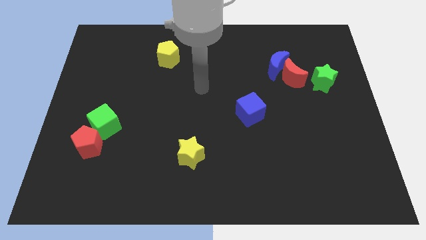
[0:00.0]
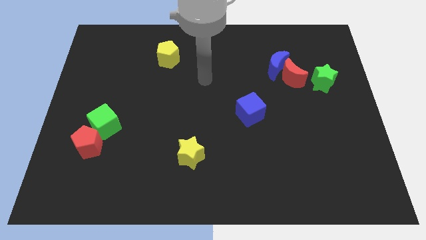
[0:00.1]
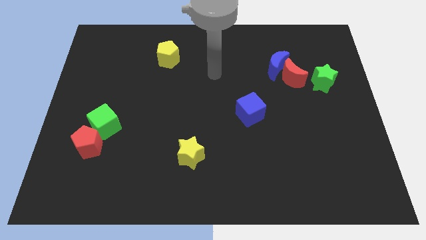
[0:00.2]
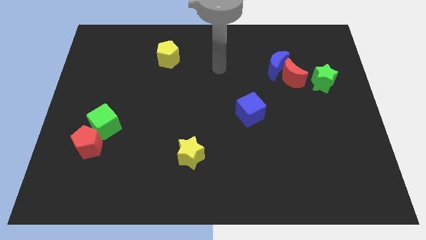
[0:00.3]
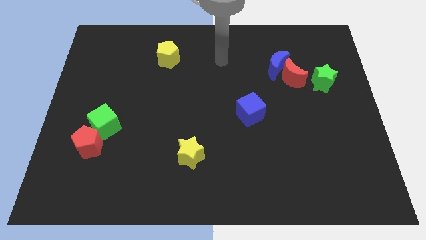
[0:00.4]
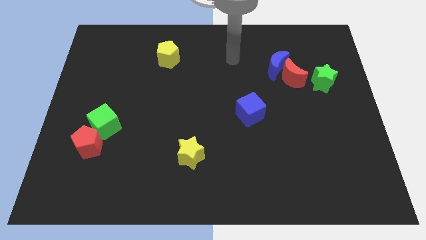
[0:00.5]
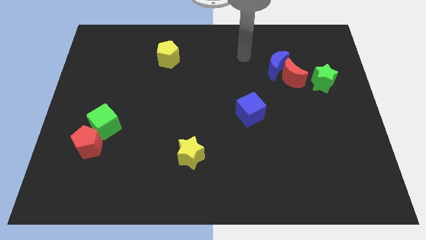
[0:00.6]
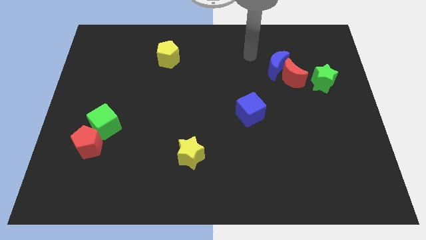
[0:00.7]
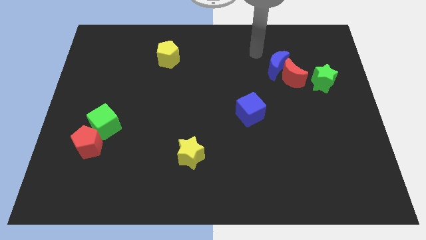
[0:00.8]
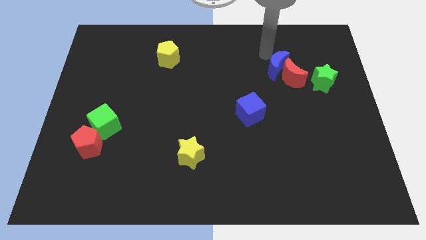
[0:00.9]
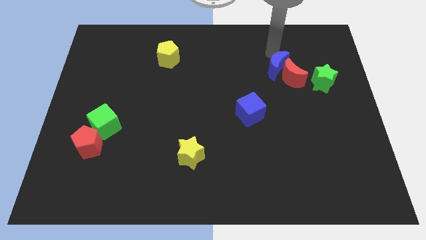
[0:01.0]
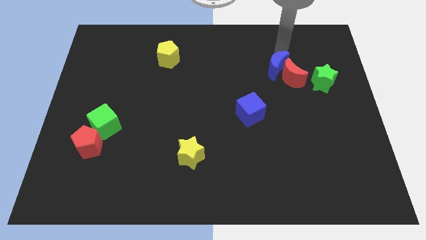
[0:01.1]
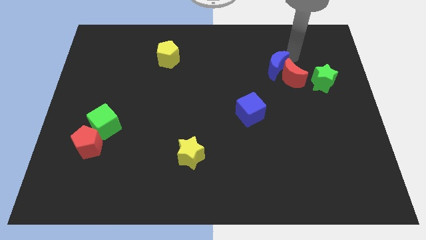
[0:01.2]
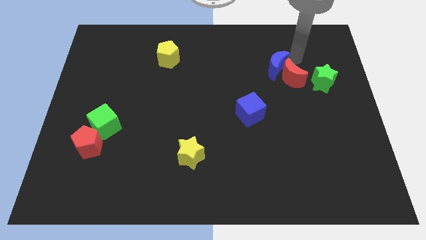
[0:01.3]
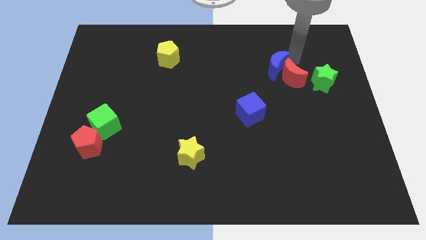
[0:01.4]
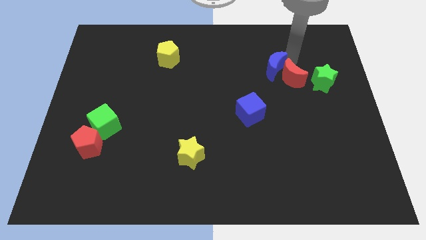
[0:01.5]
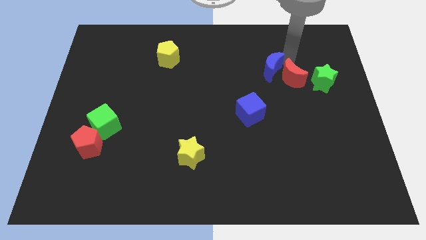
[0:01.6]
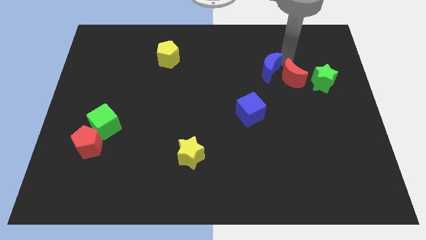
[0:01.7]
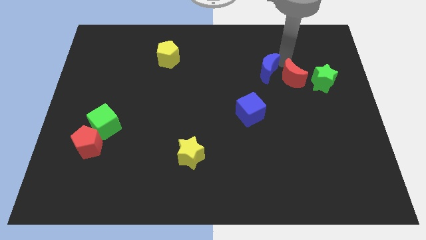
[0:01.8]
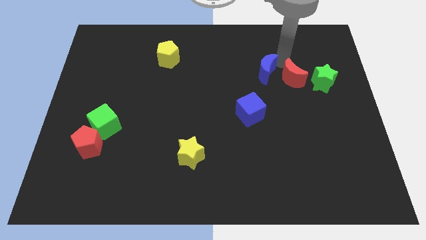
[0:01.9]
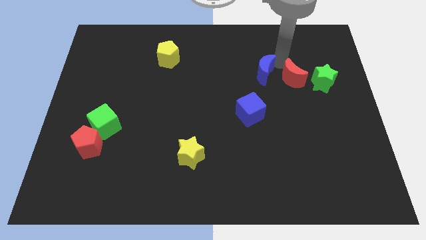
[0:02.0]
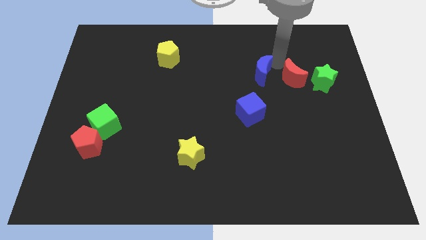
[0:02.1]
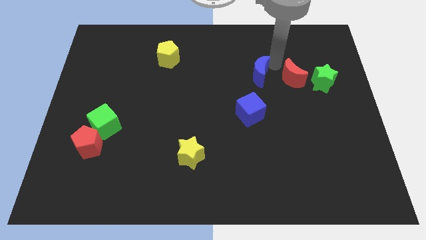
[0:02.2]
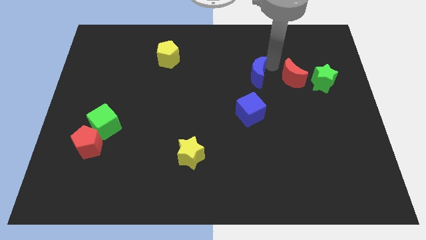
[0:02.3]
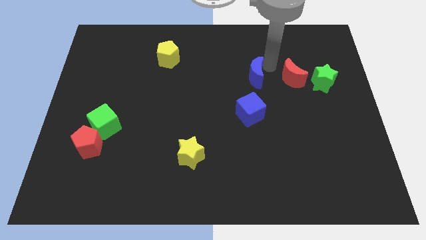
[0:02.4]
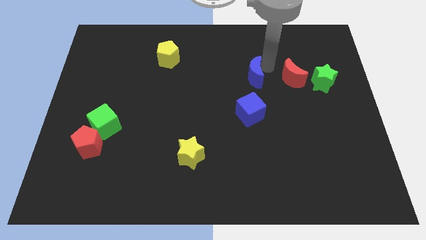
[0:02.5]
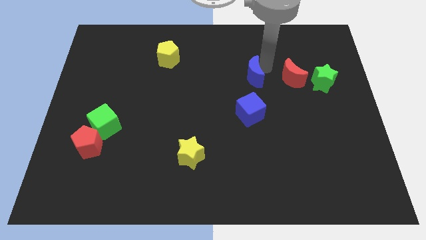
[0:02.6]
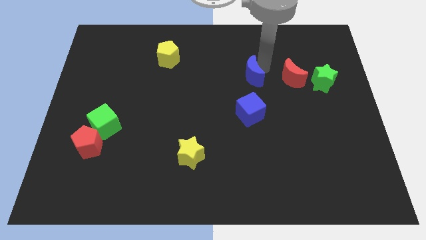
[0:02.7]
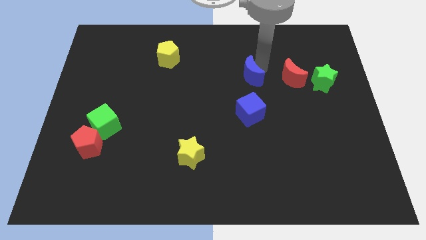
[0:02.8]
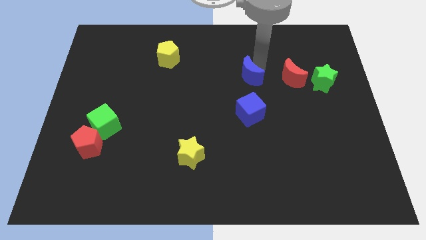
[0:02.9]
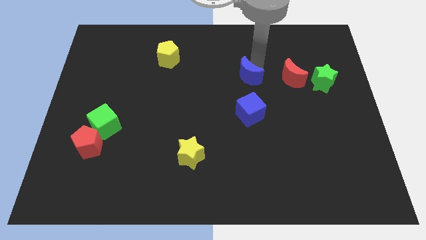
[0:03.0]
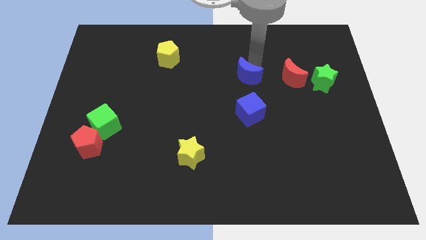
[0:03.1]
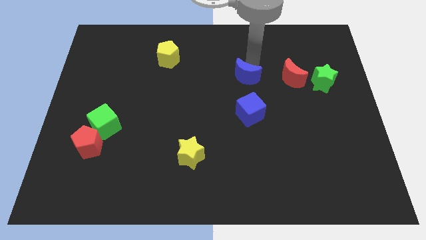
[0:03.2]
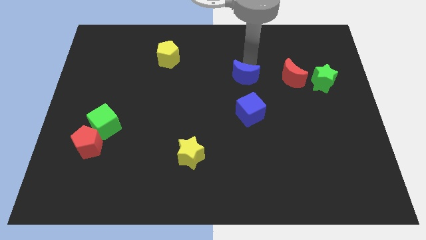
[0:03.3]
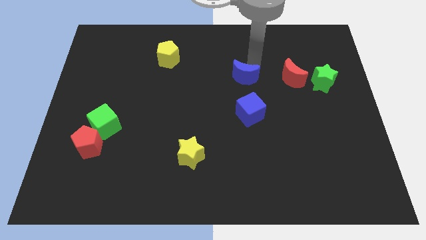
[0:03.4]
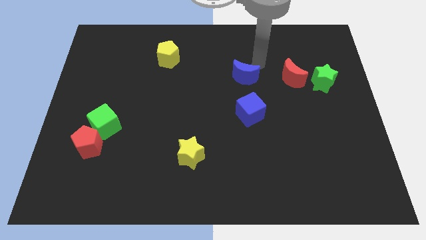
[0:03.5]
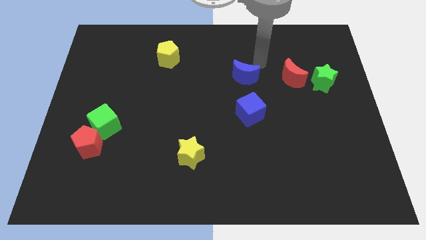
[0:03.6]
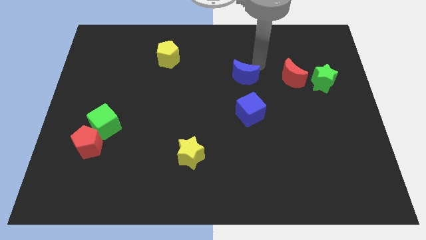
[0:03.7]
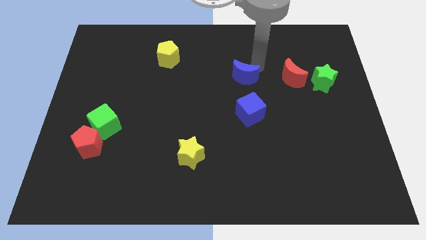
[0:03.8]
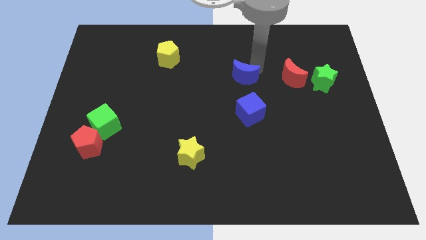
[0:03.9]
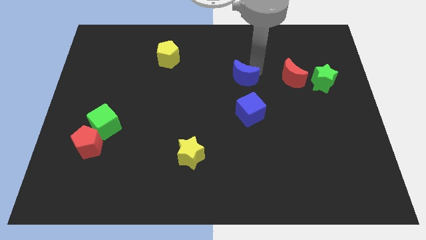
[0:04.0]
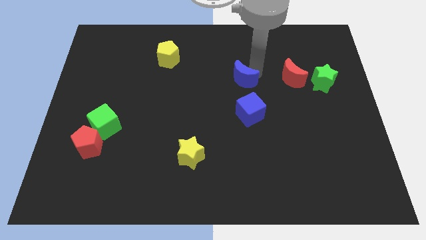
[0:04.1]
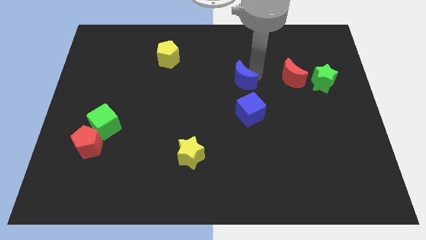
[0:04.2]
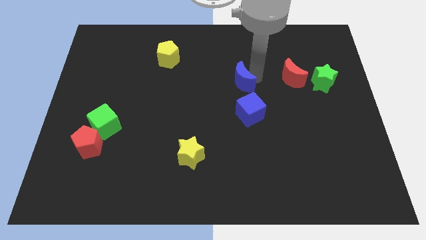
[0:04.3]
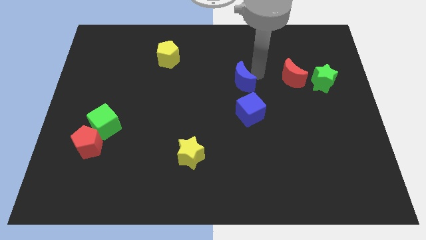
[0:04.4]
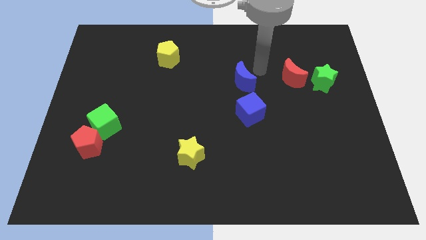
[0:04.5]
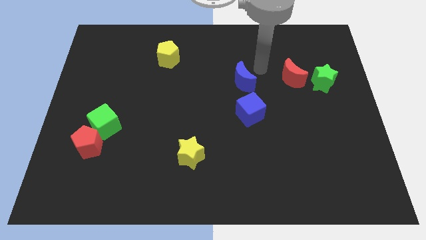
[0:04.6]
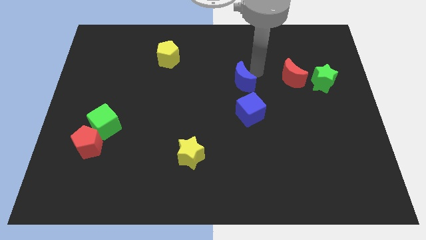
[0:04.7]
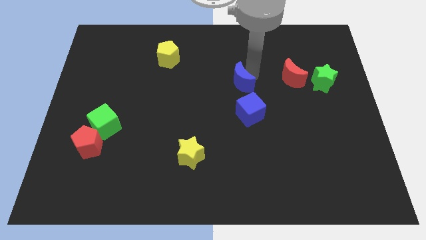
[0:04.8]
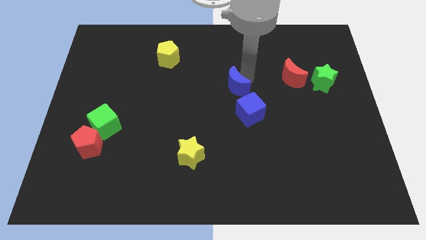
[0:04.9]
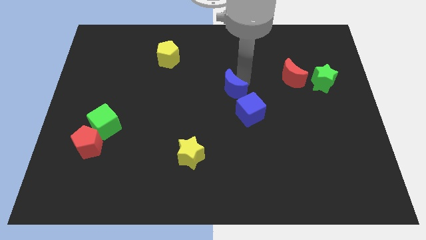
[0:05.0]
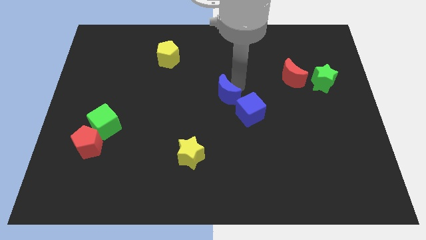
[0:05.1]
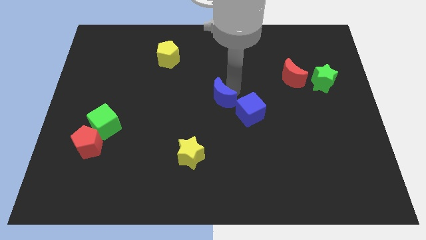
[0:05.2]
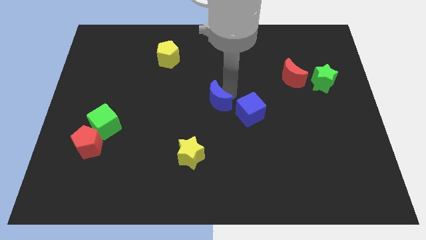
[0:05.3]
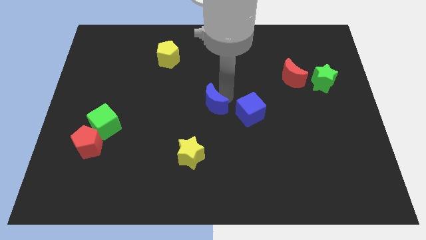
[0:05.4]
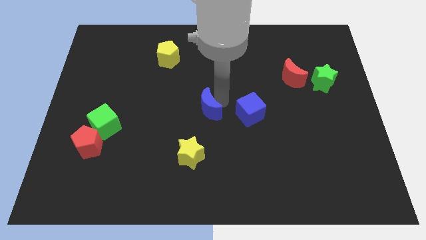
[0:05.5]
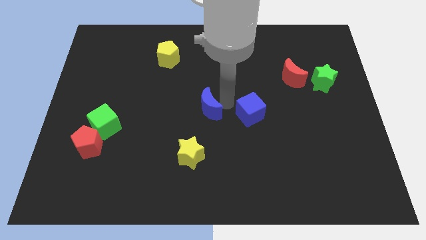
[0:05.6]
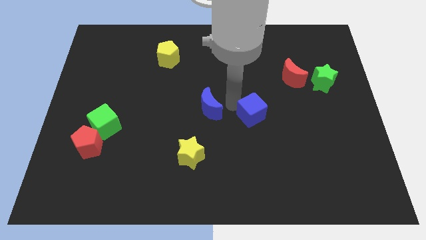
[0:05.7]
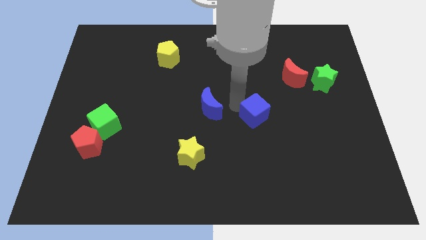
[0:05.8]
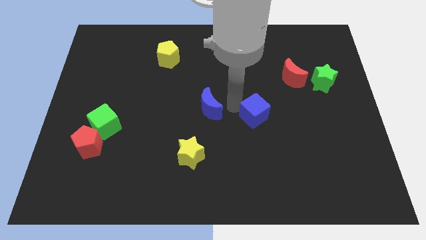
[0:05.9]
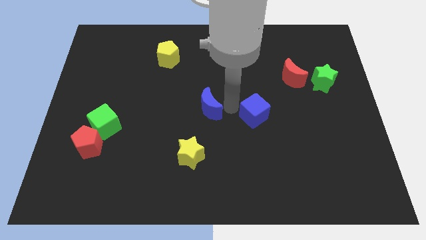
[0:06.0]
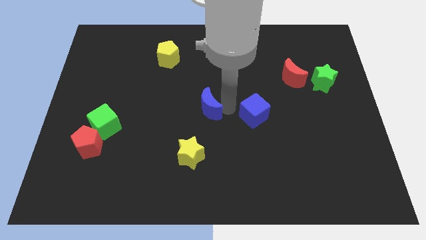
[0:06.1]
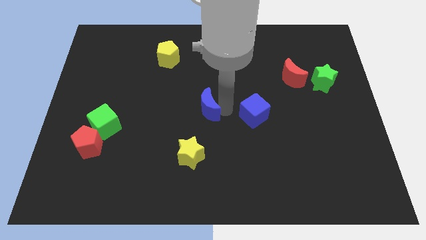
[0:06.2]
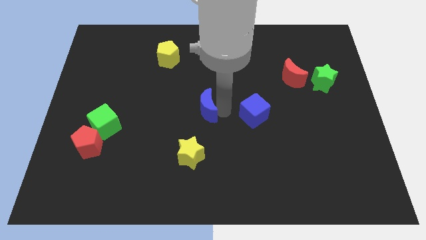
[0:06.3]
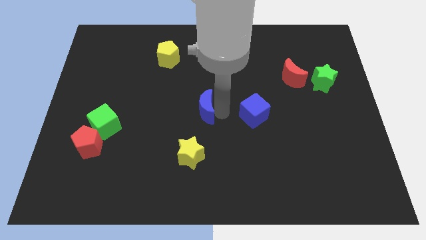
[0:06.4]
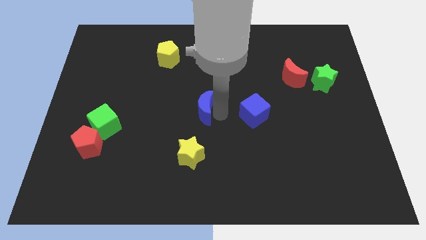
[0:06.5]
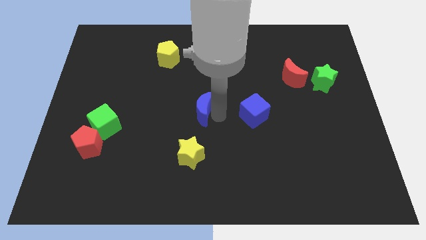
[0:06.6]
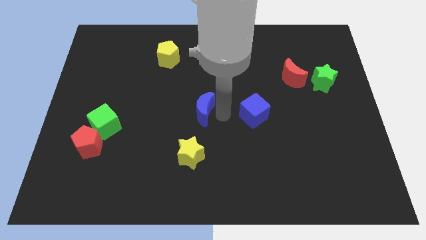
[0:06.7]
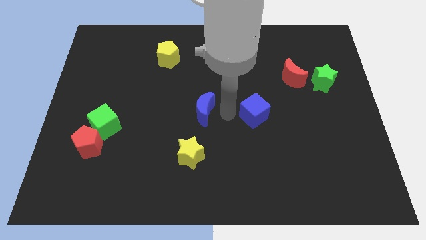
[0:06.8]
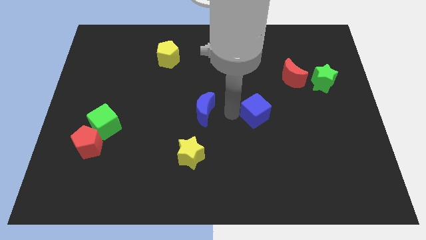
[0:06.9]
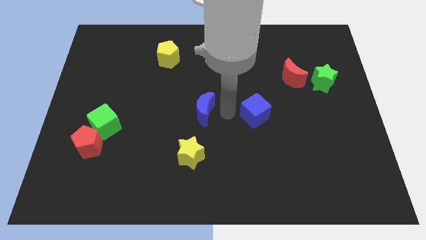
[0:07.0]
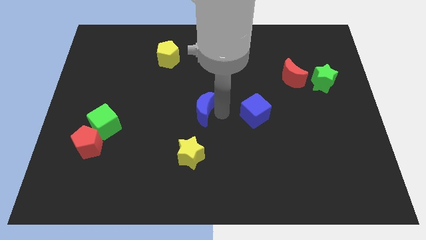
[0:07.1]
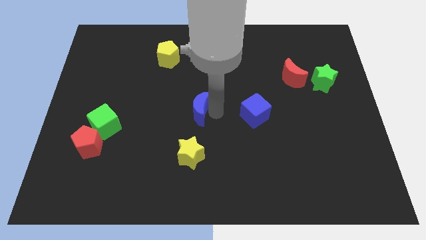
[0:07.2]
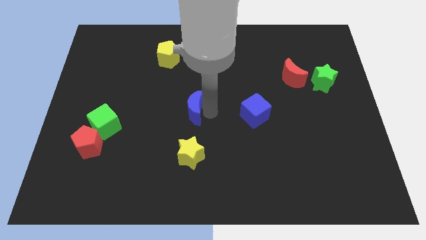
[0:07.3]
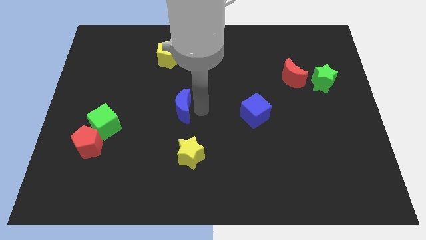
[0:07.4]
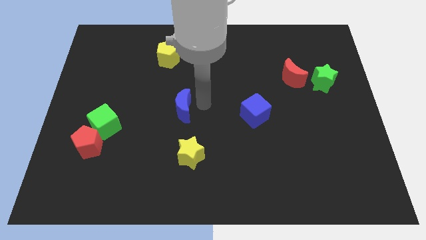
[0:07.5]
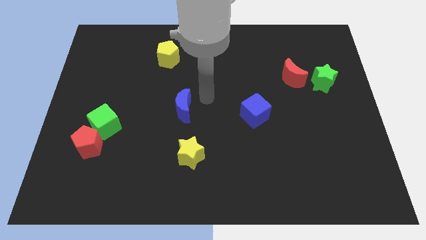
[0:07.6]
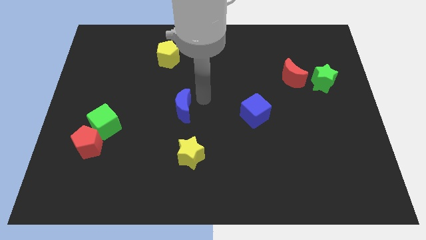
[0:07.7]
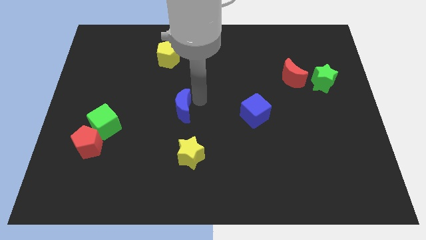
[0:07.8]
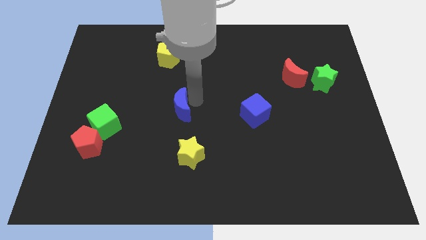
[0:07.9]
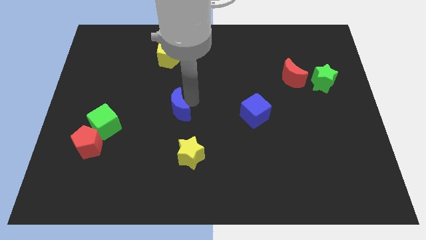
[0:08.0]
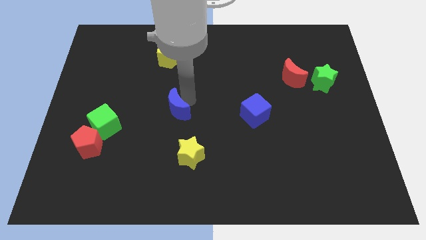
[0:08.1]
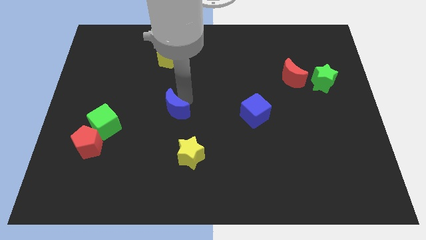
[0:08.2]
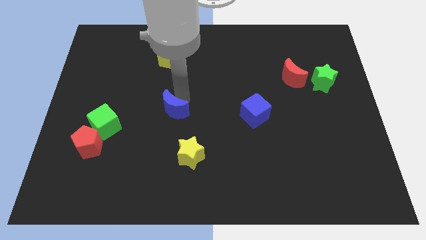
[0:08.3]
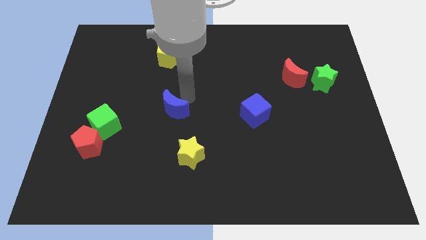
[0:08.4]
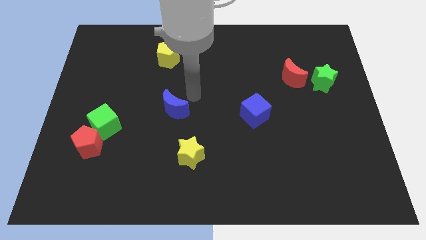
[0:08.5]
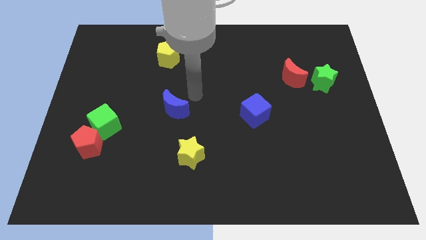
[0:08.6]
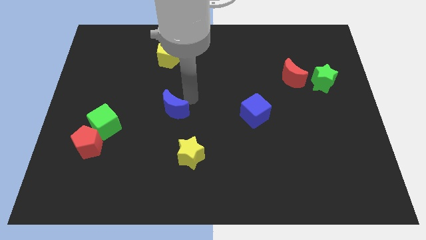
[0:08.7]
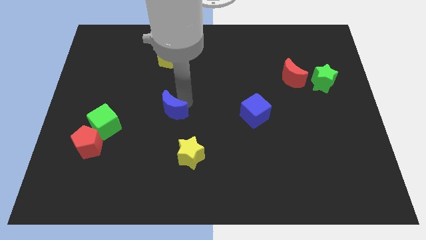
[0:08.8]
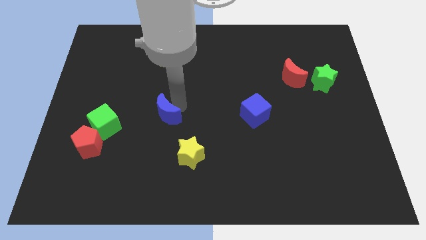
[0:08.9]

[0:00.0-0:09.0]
push the blue moon right of the green cube
